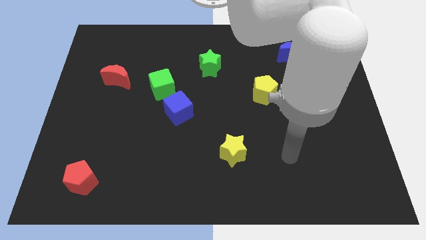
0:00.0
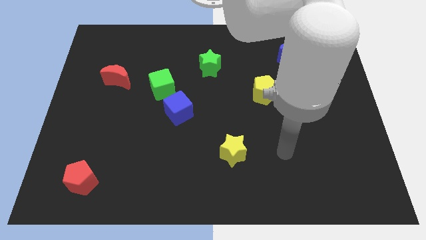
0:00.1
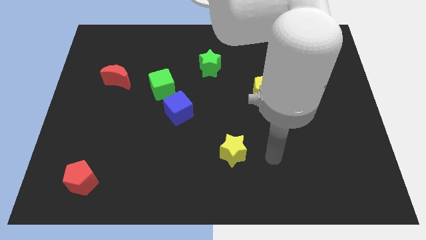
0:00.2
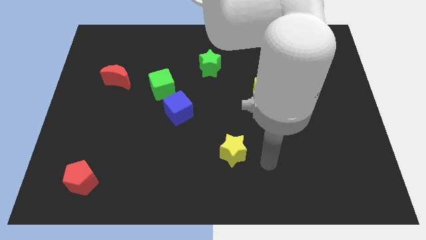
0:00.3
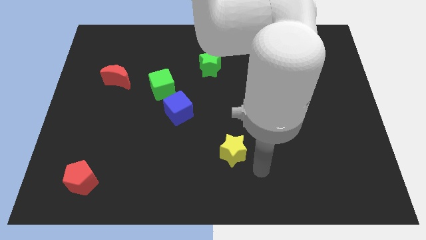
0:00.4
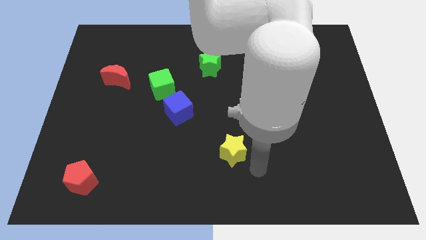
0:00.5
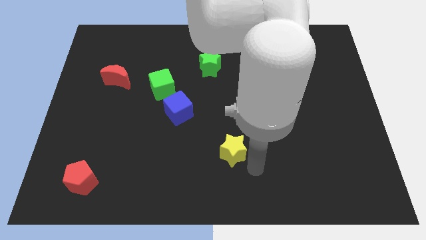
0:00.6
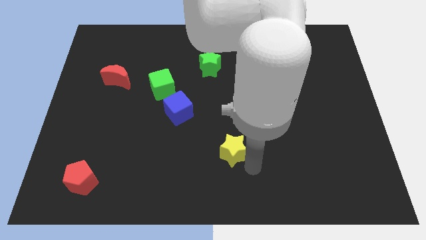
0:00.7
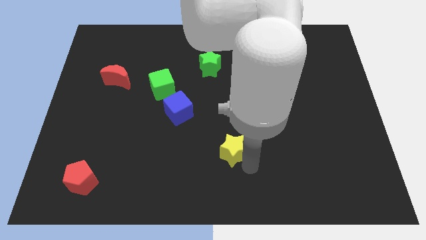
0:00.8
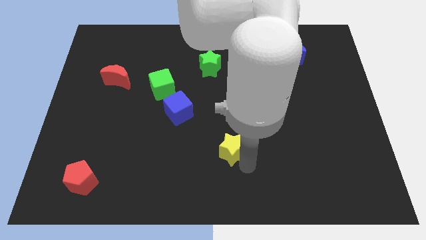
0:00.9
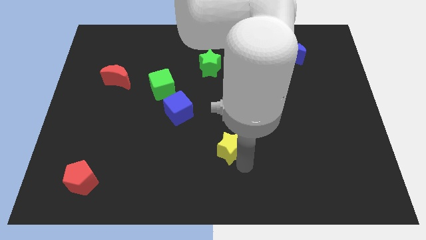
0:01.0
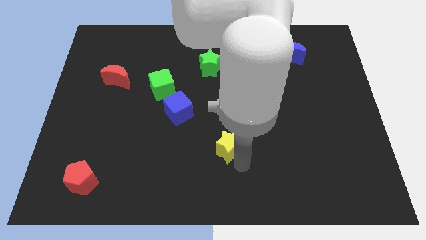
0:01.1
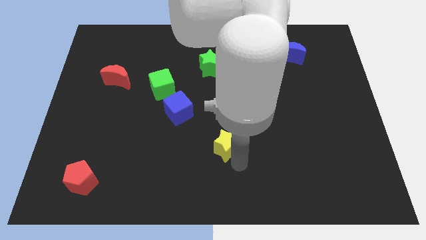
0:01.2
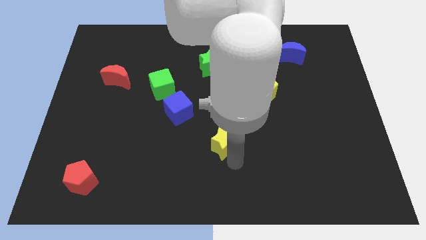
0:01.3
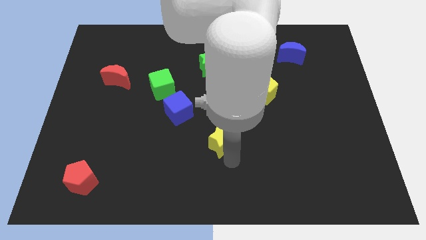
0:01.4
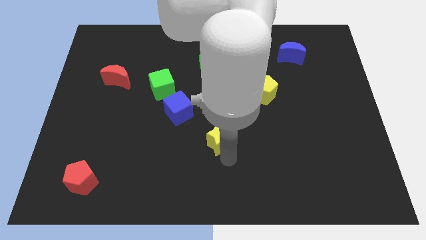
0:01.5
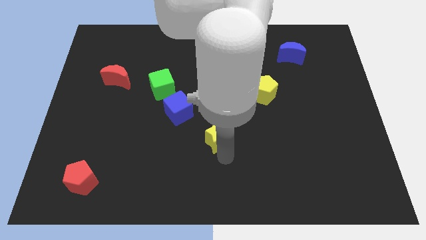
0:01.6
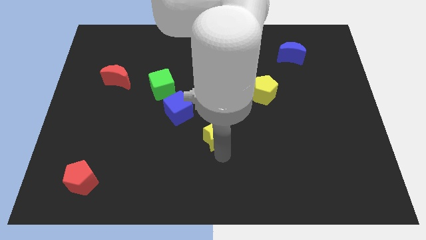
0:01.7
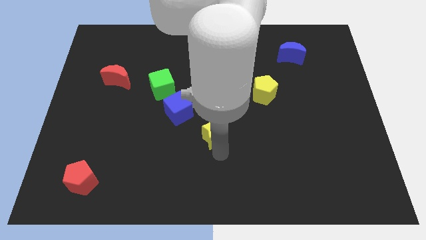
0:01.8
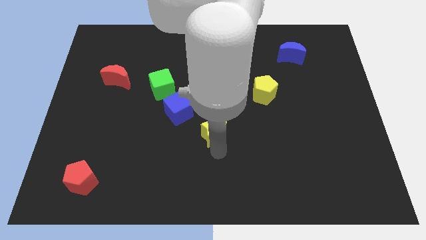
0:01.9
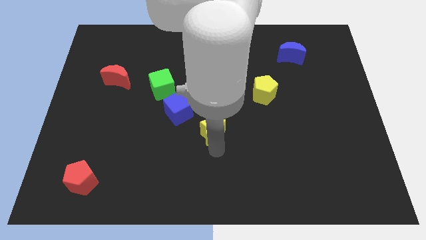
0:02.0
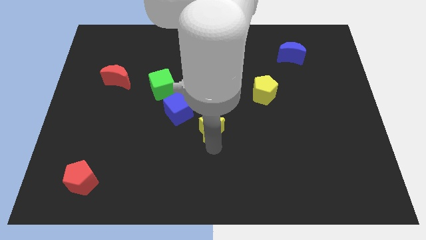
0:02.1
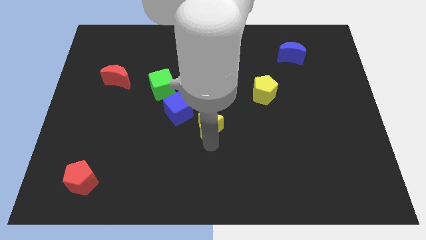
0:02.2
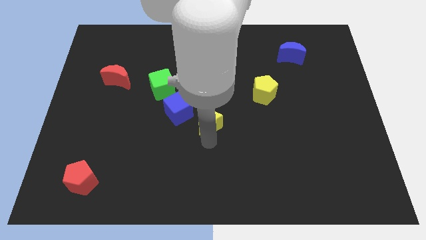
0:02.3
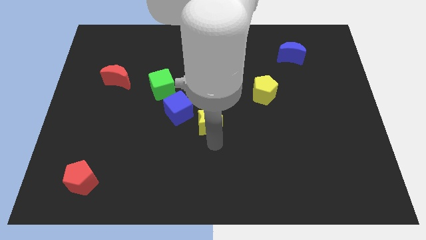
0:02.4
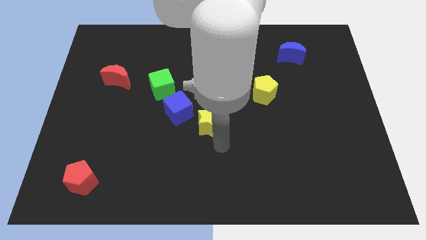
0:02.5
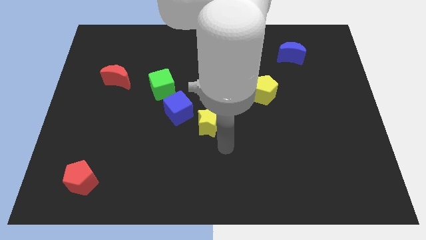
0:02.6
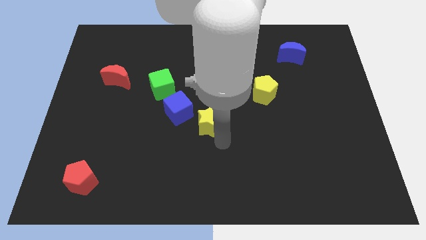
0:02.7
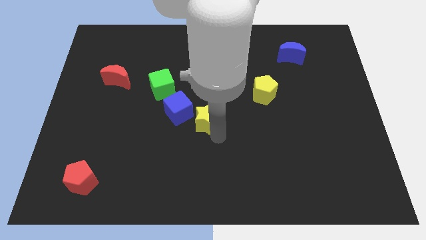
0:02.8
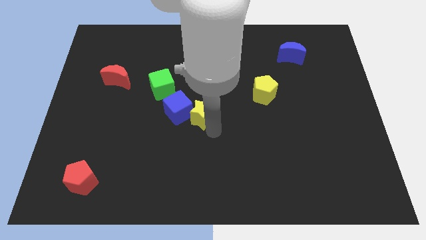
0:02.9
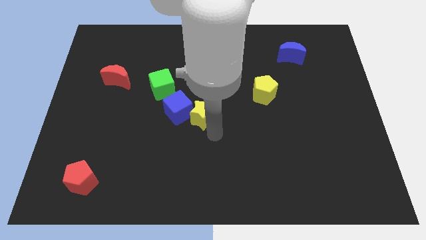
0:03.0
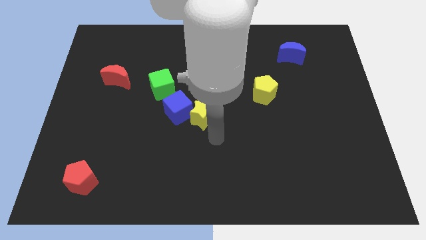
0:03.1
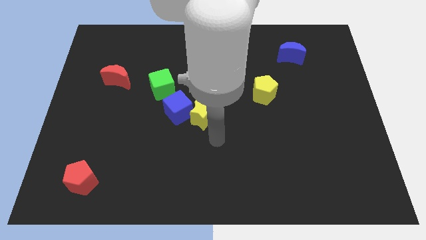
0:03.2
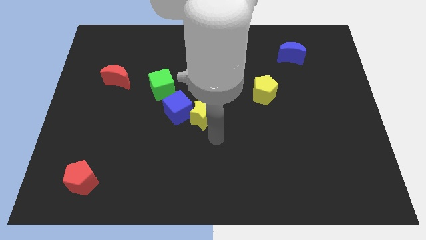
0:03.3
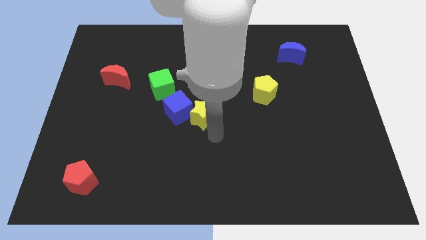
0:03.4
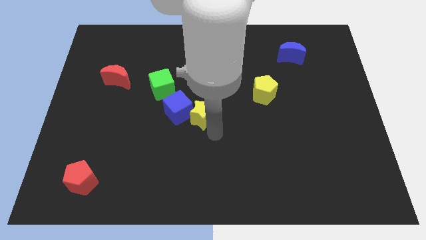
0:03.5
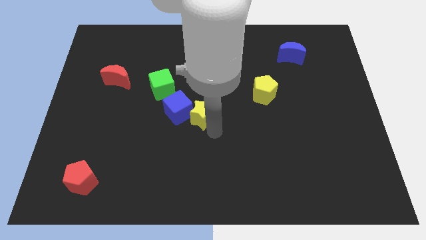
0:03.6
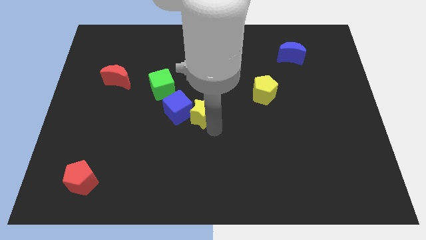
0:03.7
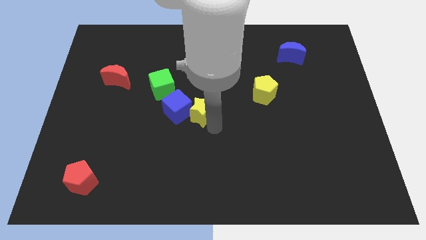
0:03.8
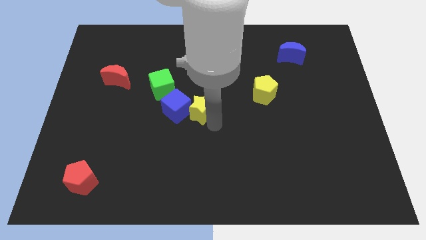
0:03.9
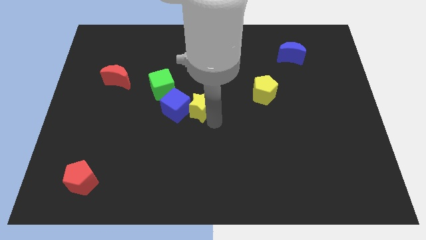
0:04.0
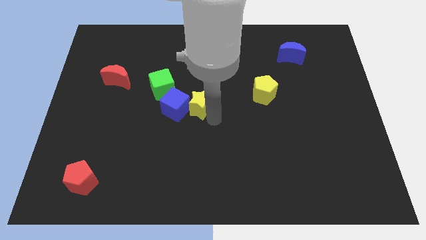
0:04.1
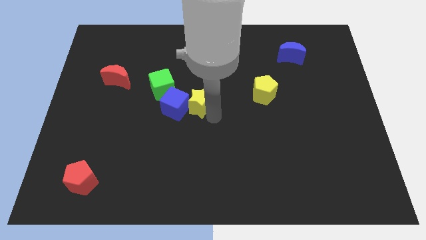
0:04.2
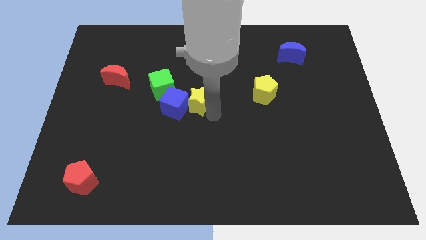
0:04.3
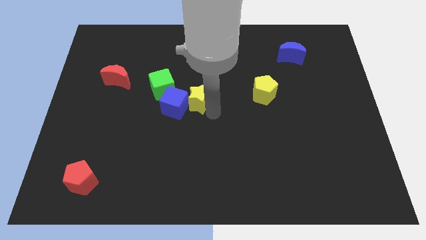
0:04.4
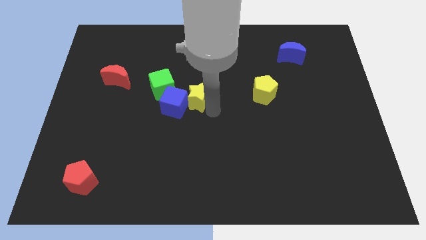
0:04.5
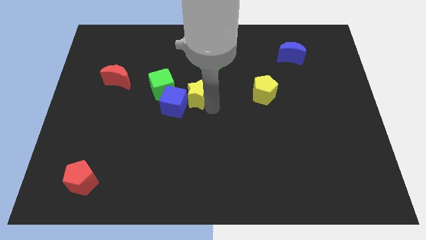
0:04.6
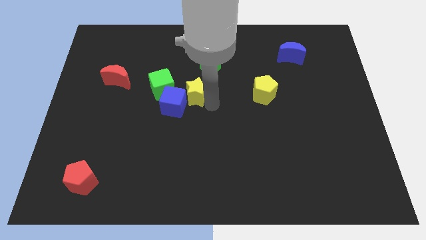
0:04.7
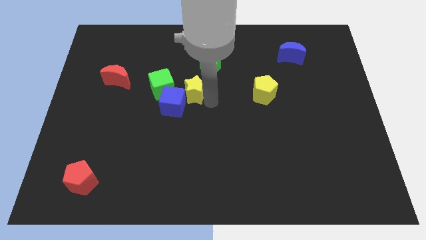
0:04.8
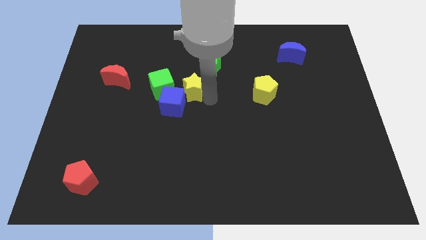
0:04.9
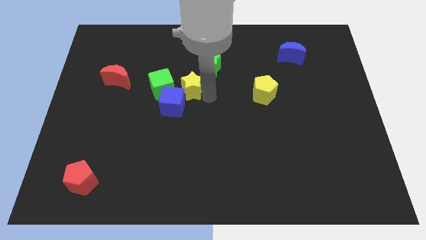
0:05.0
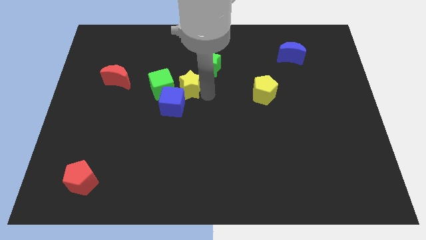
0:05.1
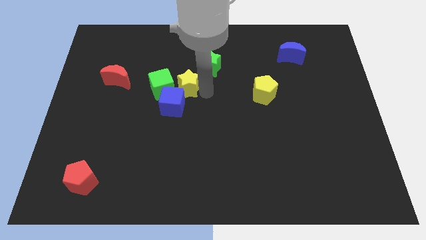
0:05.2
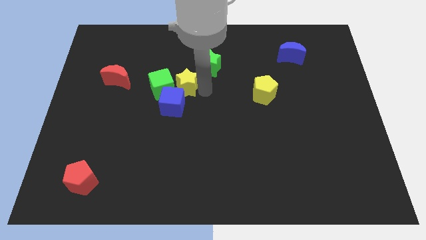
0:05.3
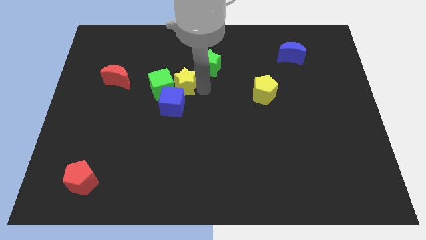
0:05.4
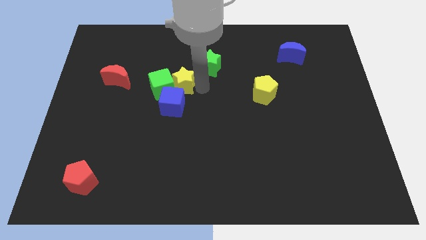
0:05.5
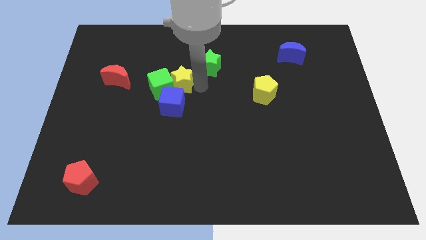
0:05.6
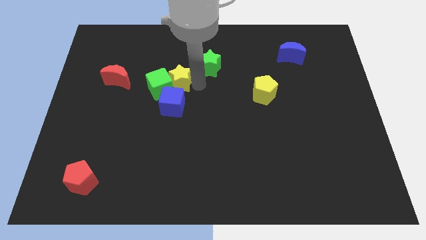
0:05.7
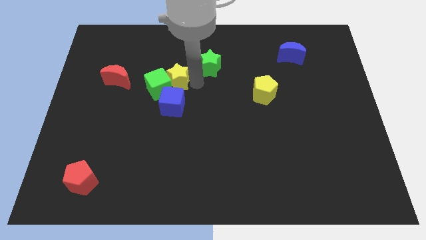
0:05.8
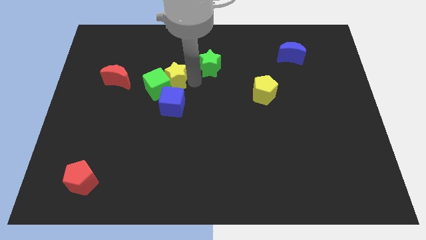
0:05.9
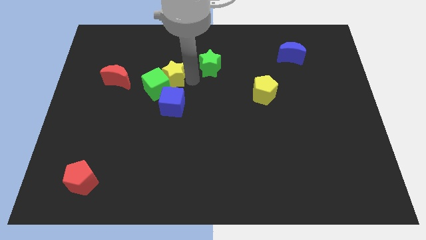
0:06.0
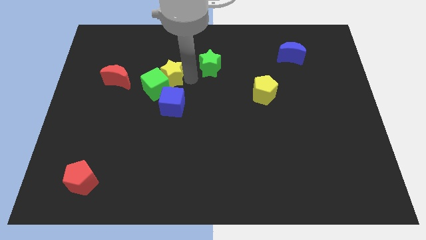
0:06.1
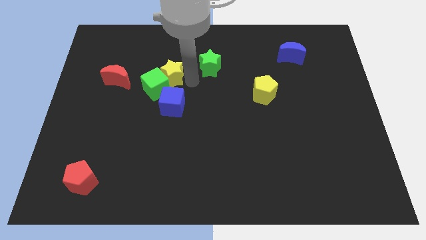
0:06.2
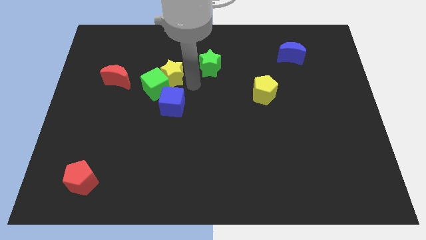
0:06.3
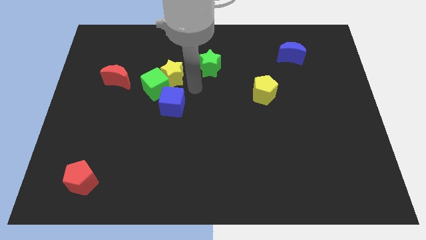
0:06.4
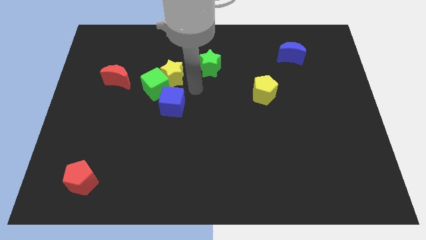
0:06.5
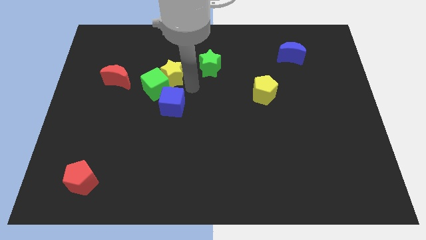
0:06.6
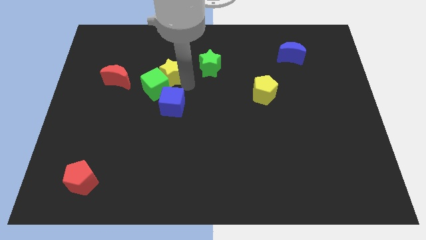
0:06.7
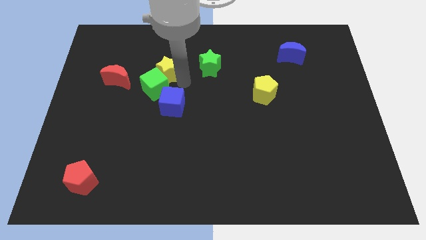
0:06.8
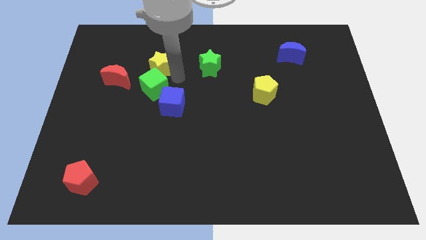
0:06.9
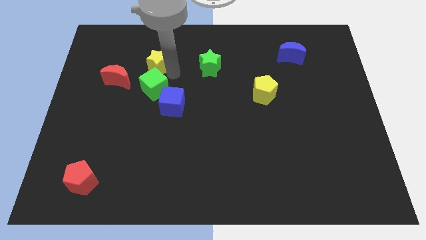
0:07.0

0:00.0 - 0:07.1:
put the yellow star diagonally up and to the right of the red moon
